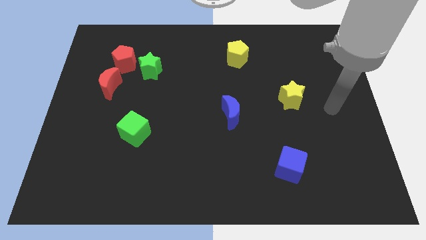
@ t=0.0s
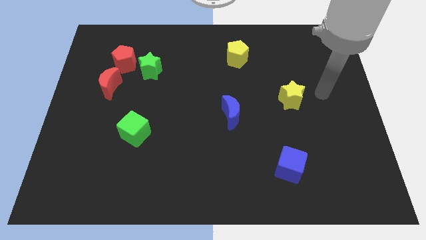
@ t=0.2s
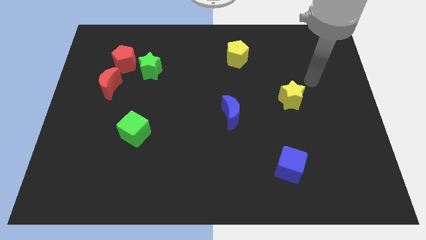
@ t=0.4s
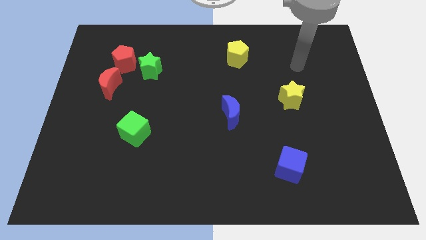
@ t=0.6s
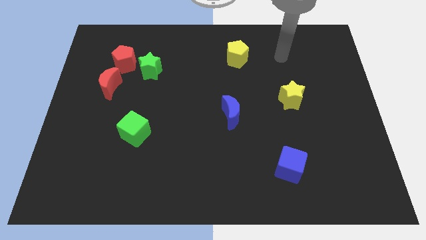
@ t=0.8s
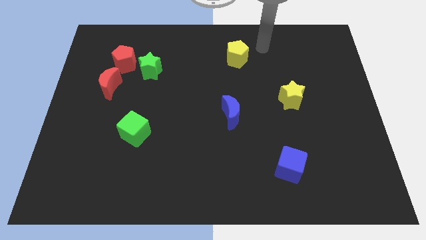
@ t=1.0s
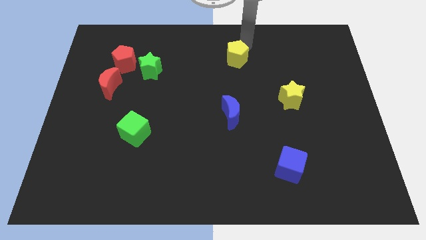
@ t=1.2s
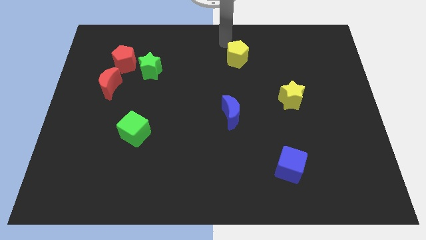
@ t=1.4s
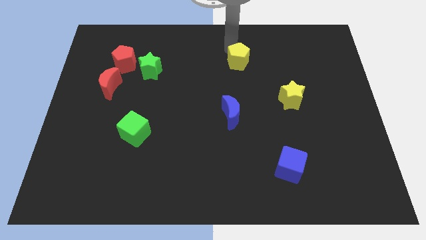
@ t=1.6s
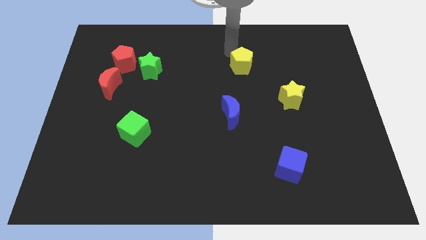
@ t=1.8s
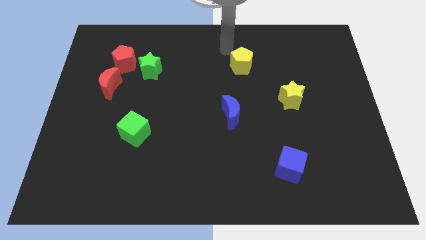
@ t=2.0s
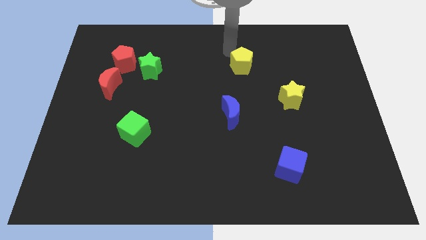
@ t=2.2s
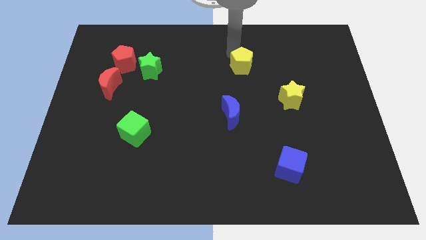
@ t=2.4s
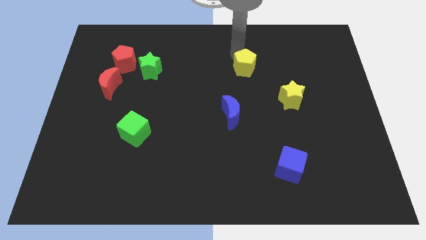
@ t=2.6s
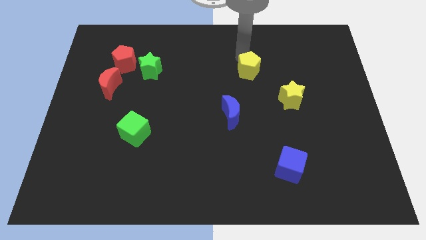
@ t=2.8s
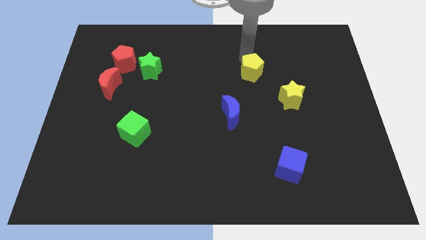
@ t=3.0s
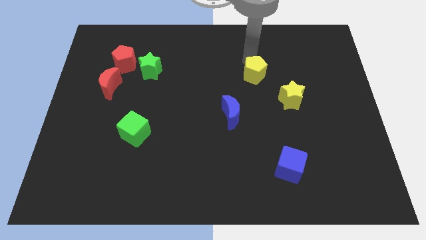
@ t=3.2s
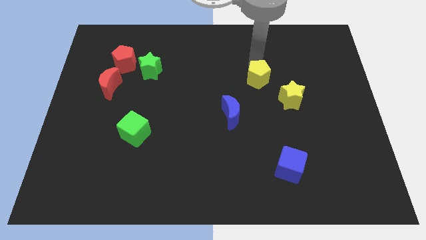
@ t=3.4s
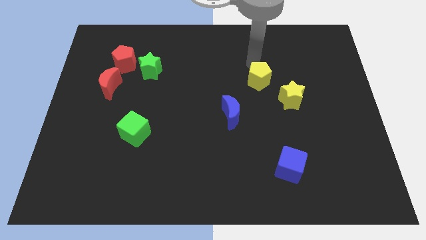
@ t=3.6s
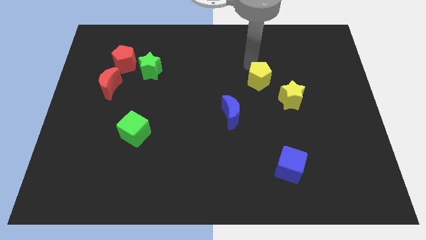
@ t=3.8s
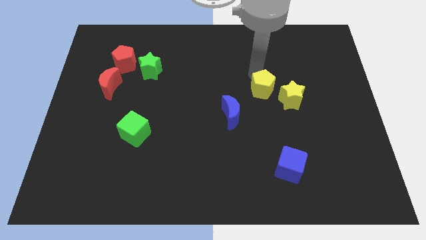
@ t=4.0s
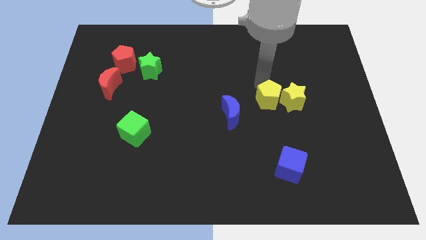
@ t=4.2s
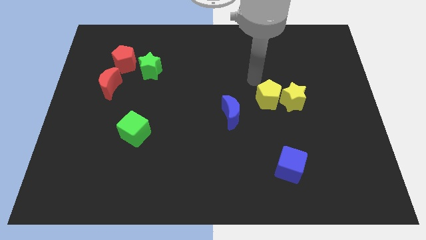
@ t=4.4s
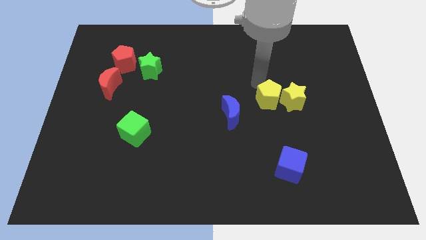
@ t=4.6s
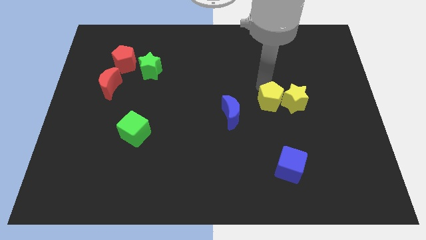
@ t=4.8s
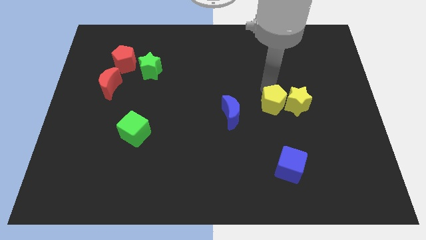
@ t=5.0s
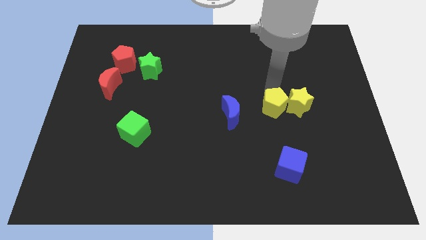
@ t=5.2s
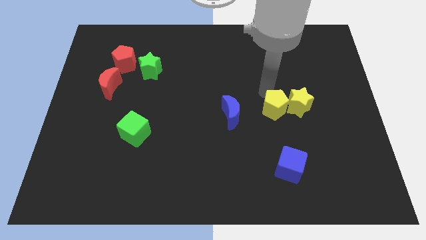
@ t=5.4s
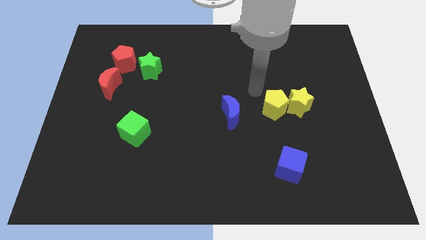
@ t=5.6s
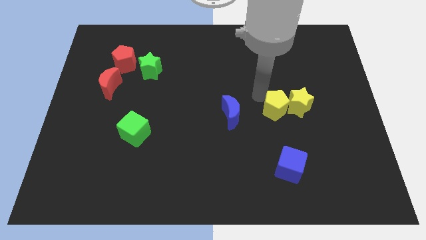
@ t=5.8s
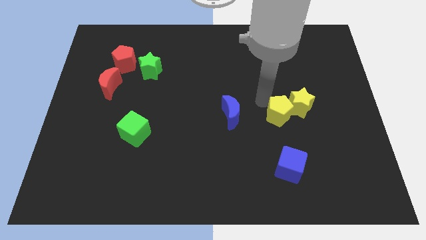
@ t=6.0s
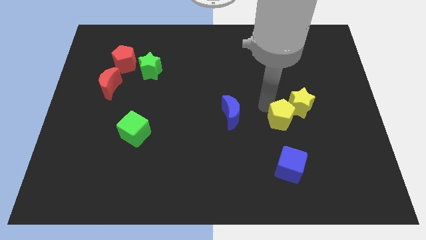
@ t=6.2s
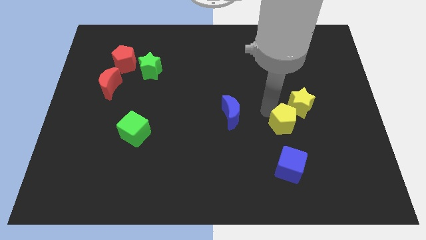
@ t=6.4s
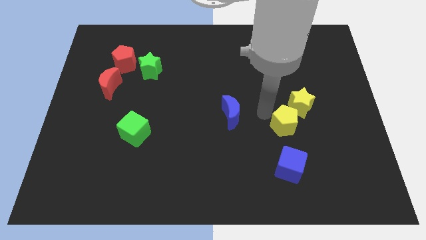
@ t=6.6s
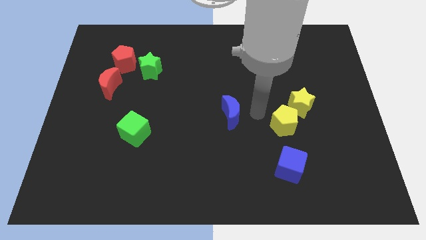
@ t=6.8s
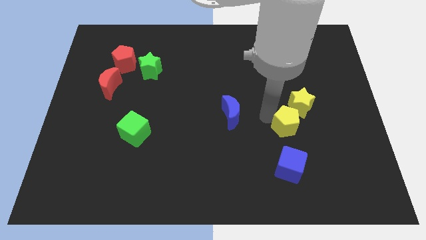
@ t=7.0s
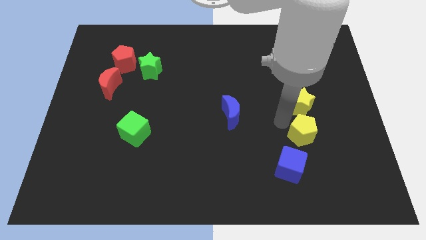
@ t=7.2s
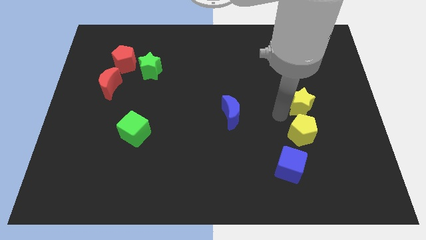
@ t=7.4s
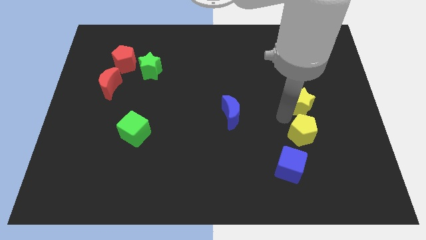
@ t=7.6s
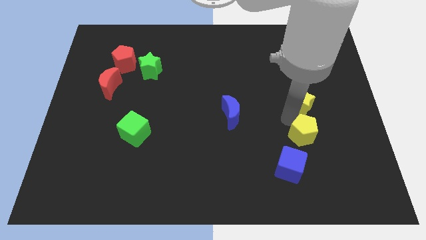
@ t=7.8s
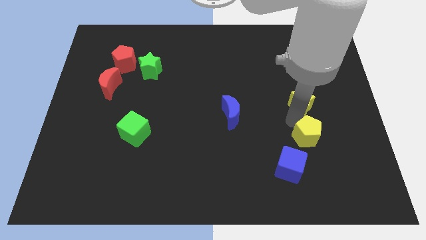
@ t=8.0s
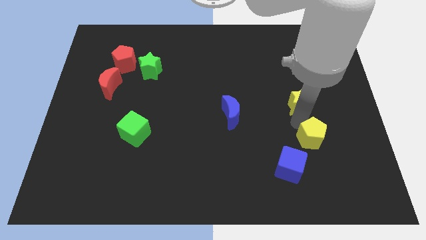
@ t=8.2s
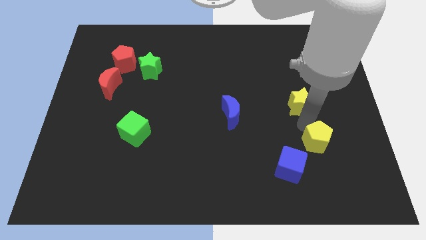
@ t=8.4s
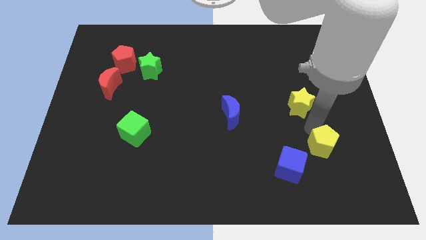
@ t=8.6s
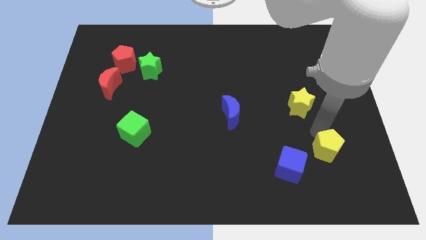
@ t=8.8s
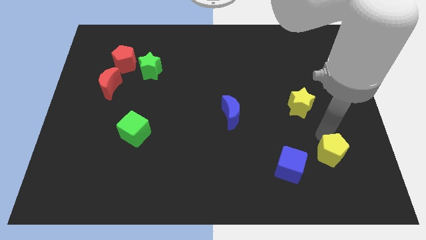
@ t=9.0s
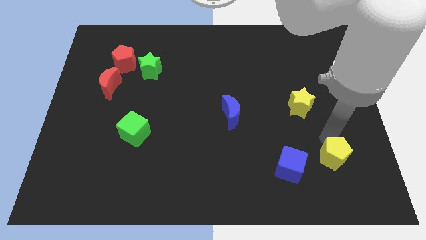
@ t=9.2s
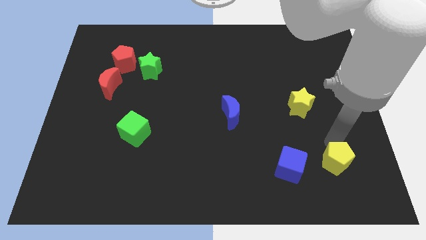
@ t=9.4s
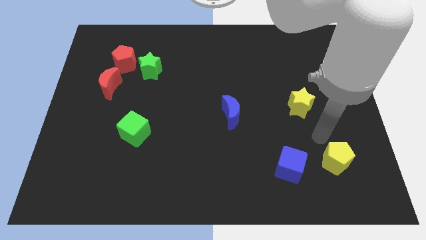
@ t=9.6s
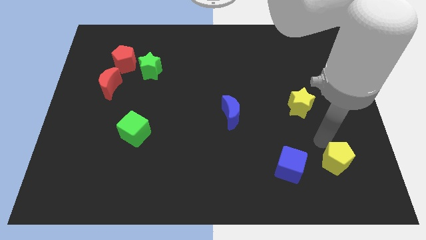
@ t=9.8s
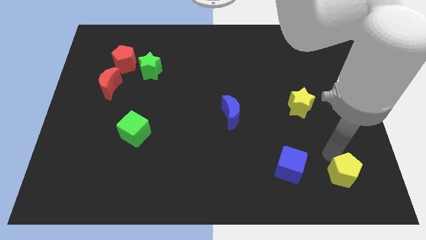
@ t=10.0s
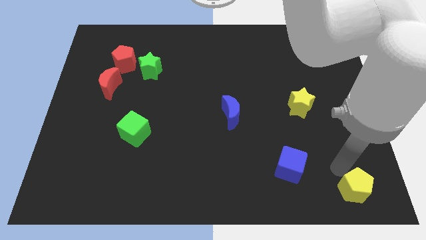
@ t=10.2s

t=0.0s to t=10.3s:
put the yellow pentagon to the bottom right of the board

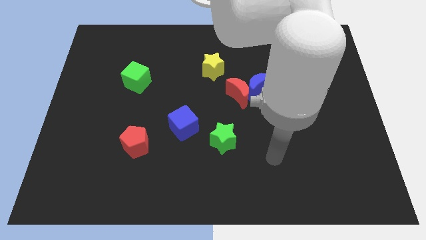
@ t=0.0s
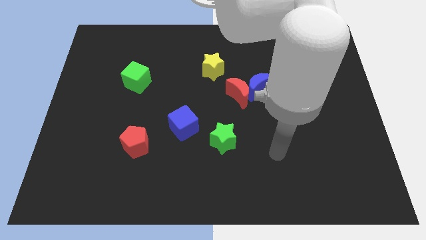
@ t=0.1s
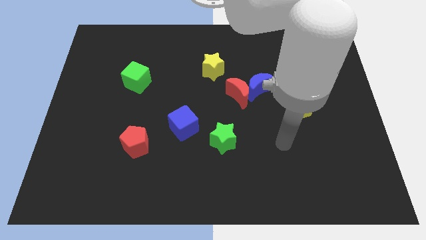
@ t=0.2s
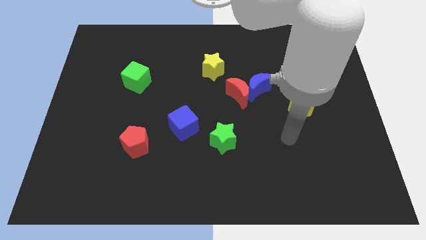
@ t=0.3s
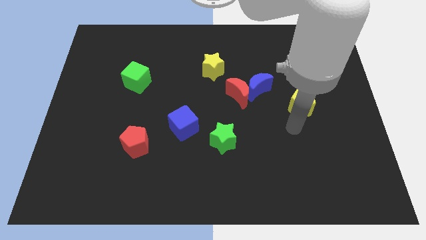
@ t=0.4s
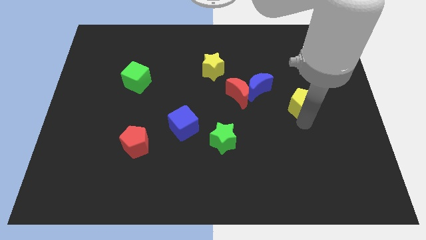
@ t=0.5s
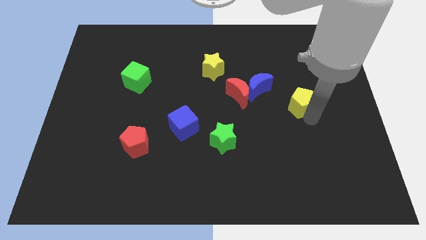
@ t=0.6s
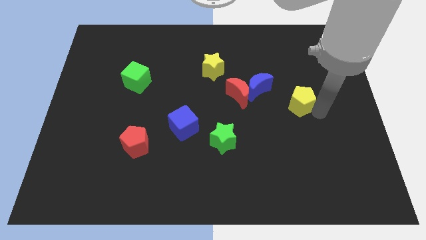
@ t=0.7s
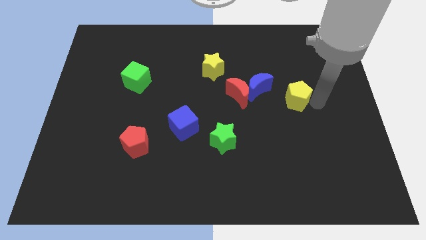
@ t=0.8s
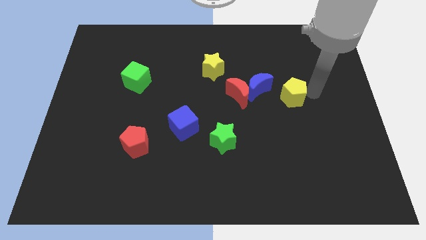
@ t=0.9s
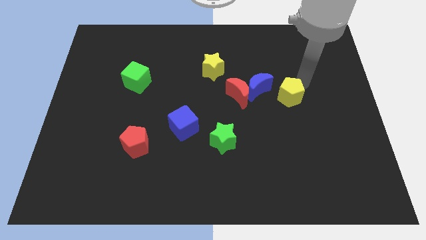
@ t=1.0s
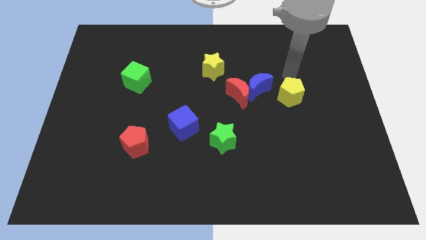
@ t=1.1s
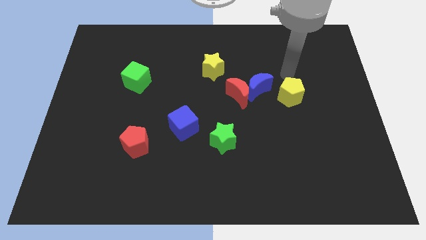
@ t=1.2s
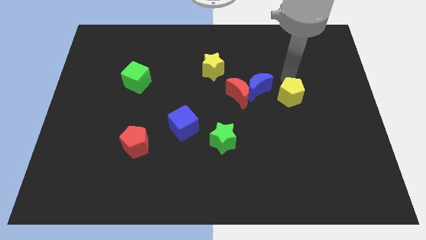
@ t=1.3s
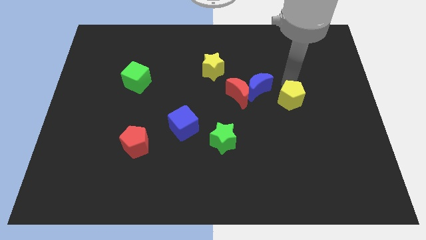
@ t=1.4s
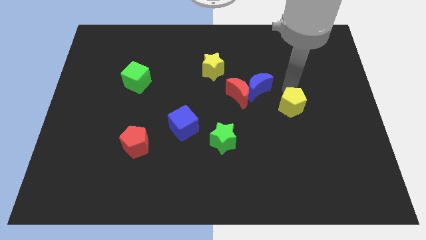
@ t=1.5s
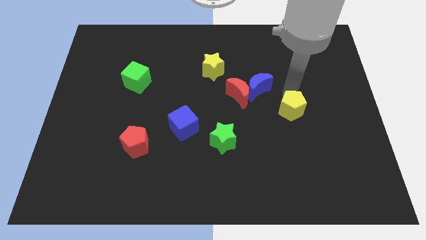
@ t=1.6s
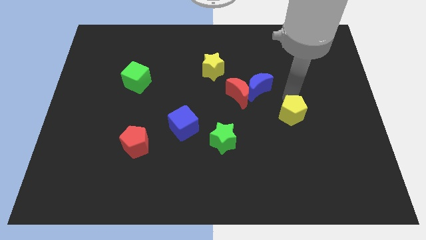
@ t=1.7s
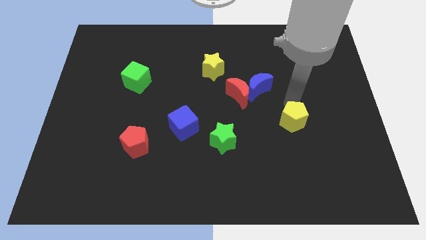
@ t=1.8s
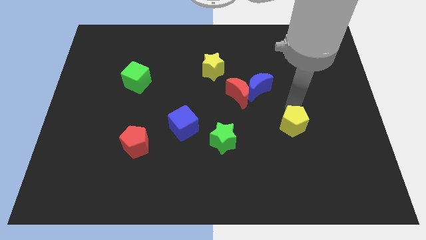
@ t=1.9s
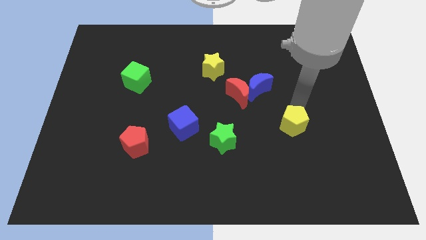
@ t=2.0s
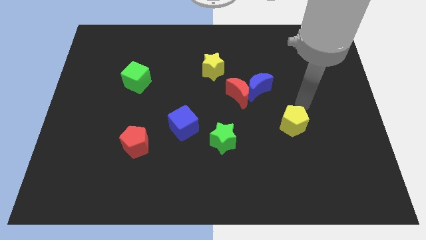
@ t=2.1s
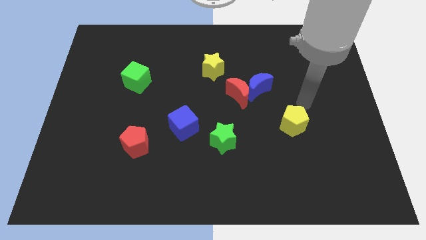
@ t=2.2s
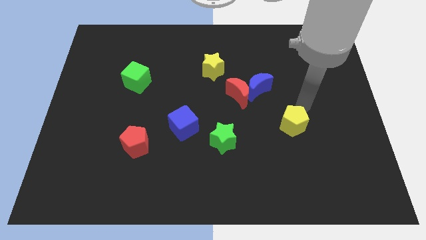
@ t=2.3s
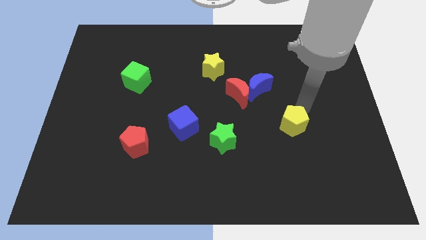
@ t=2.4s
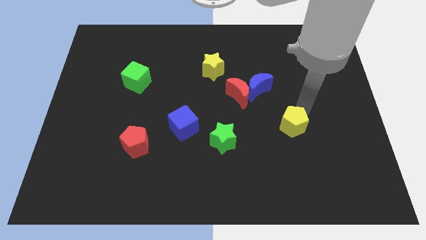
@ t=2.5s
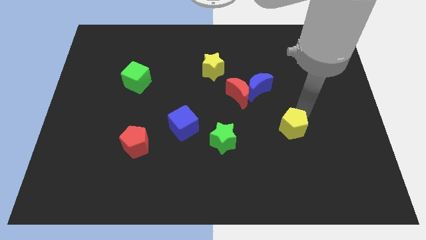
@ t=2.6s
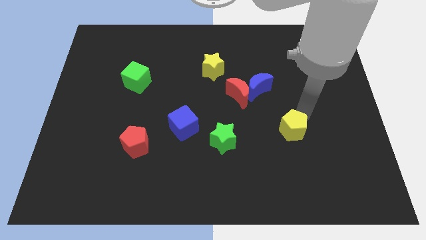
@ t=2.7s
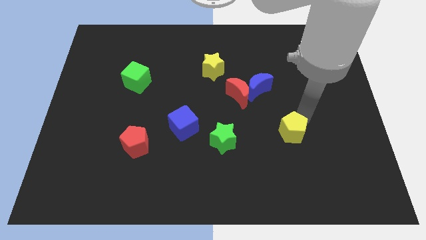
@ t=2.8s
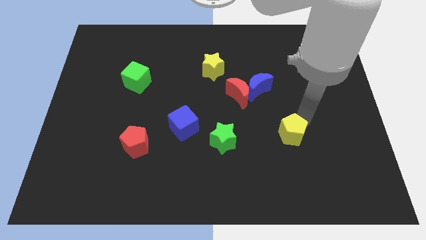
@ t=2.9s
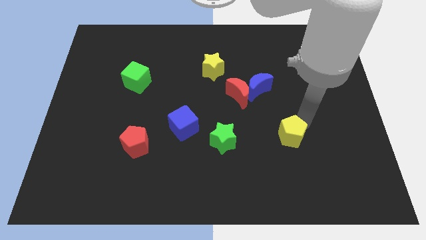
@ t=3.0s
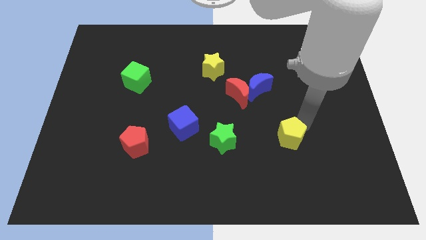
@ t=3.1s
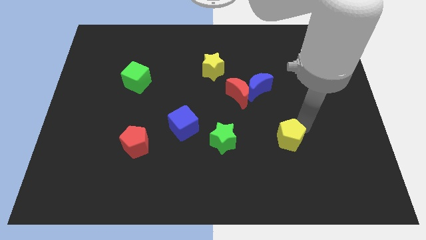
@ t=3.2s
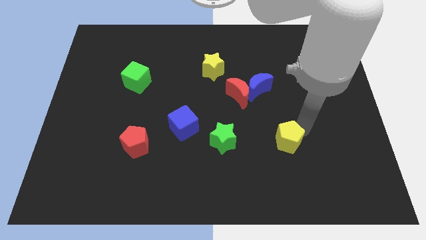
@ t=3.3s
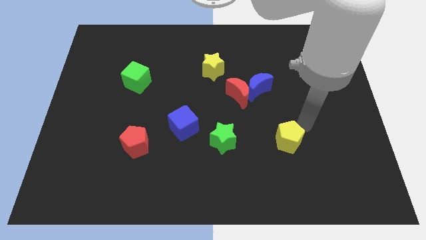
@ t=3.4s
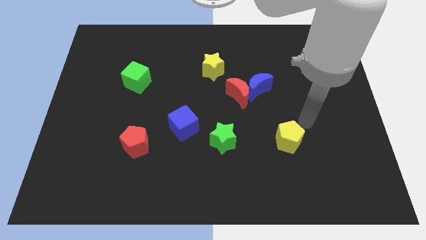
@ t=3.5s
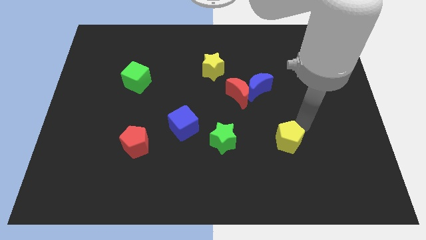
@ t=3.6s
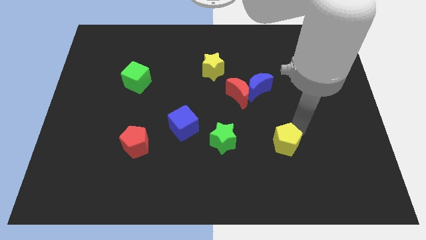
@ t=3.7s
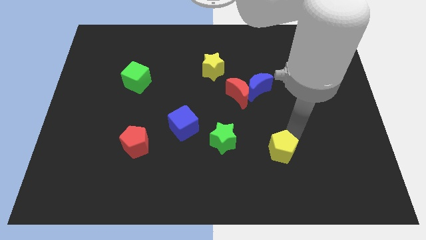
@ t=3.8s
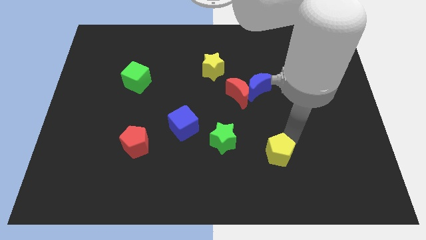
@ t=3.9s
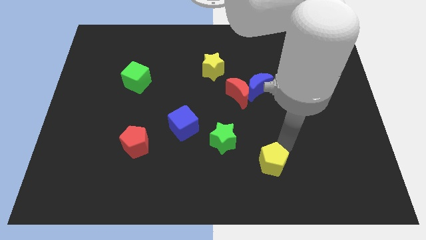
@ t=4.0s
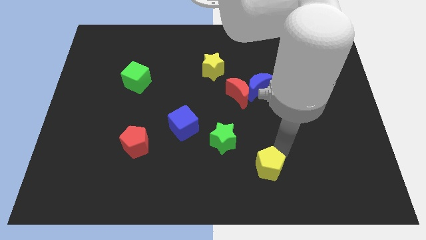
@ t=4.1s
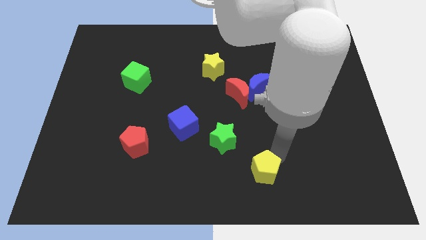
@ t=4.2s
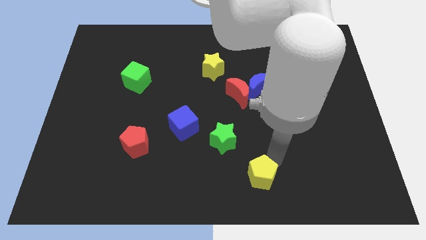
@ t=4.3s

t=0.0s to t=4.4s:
slide the yellow pentagon to the bottom side
